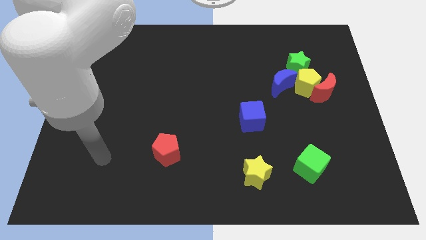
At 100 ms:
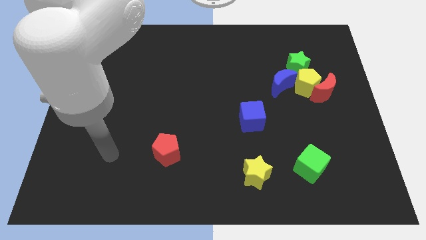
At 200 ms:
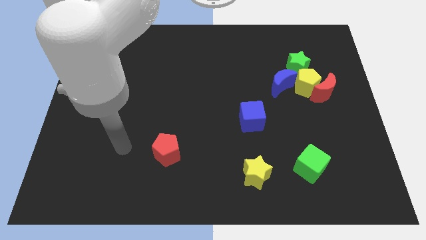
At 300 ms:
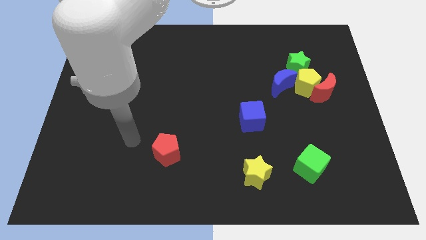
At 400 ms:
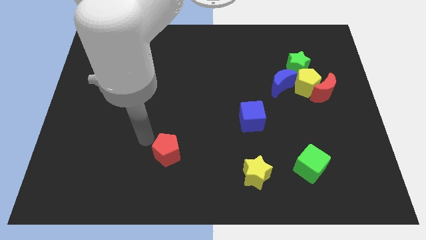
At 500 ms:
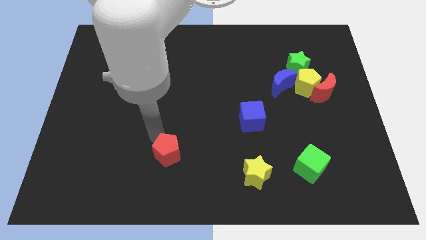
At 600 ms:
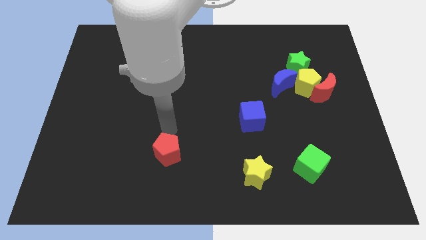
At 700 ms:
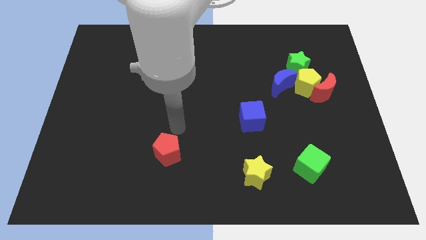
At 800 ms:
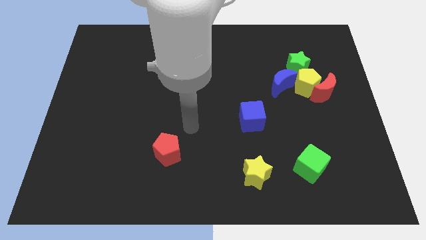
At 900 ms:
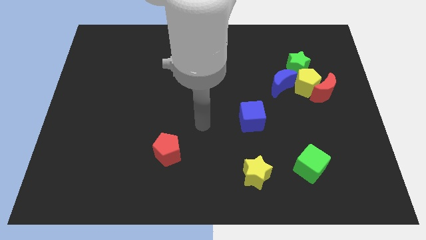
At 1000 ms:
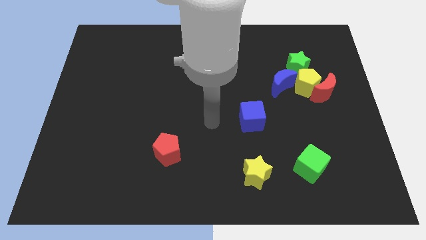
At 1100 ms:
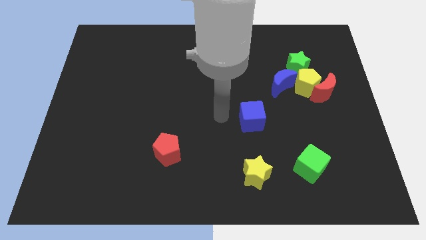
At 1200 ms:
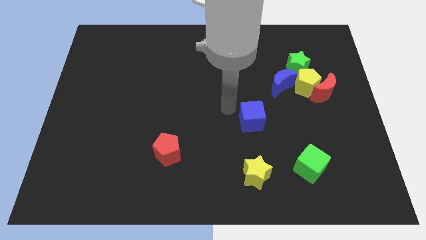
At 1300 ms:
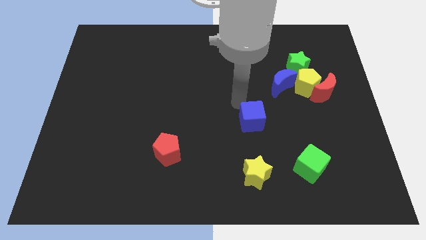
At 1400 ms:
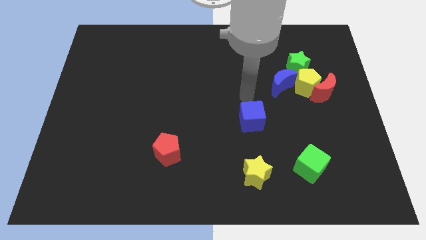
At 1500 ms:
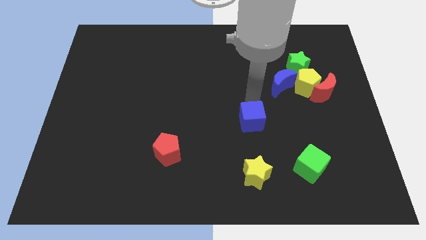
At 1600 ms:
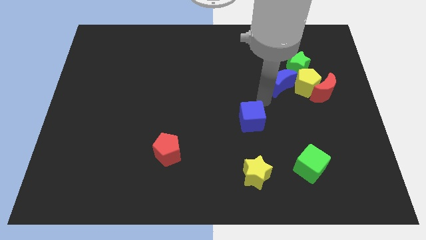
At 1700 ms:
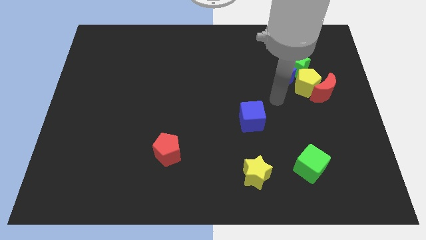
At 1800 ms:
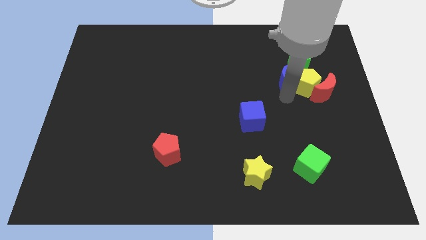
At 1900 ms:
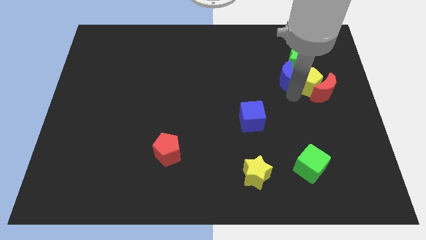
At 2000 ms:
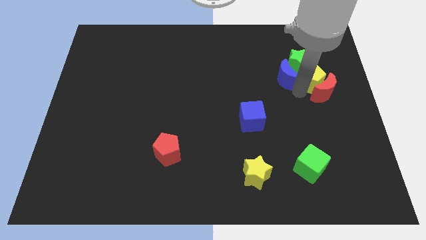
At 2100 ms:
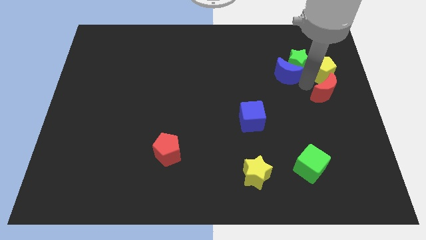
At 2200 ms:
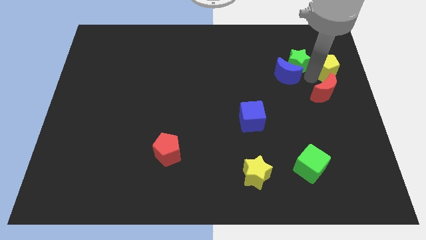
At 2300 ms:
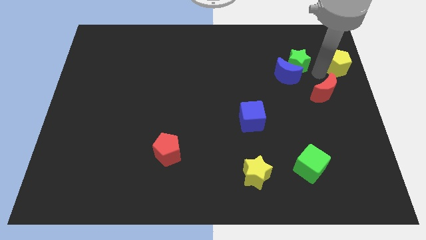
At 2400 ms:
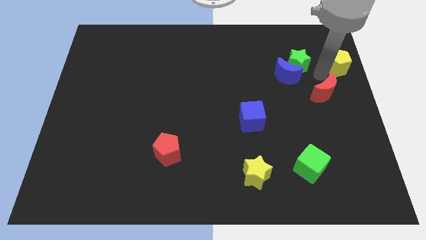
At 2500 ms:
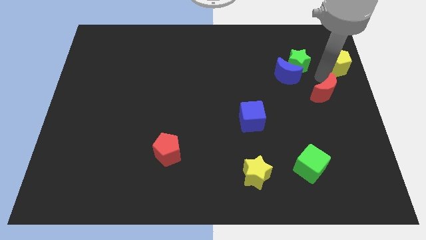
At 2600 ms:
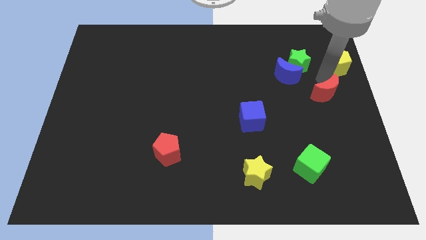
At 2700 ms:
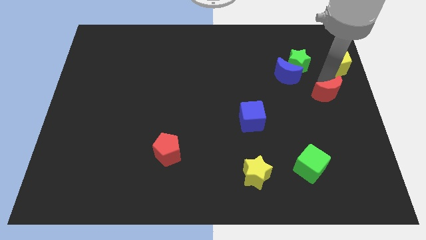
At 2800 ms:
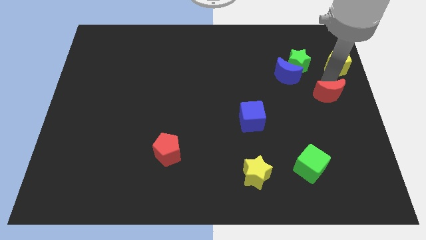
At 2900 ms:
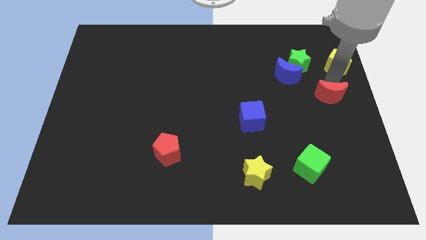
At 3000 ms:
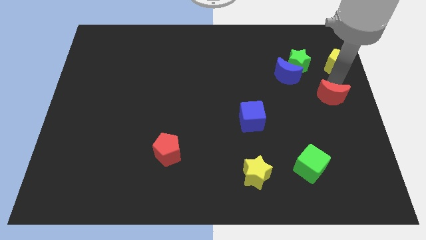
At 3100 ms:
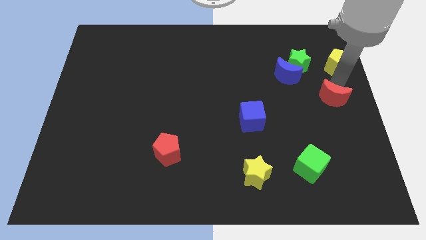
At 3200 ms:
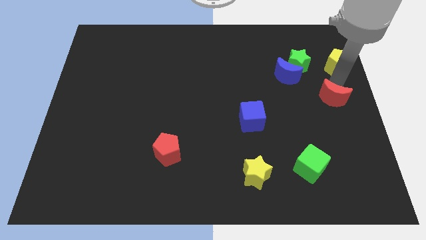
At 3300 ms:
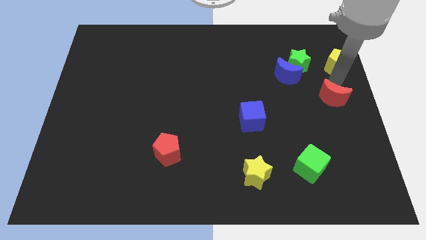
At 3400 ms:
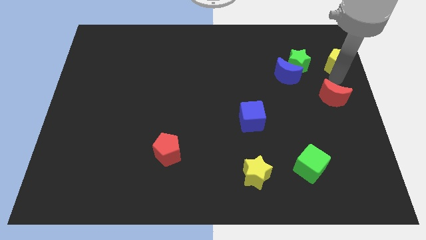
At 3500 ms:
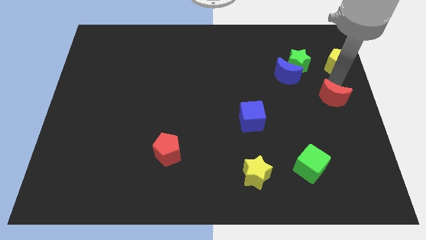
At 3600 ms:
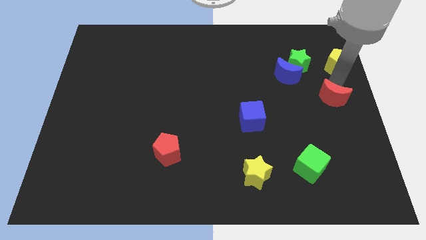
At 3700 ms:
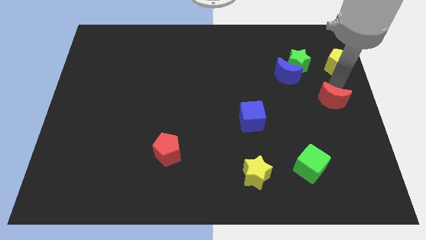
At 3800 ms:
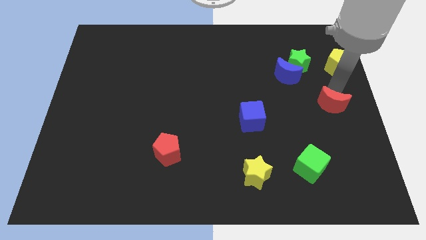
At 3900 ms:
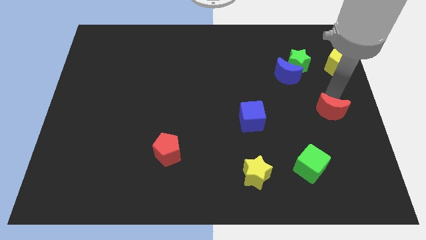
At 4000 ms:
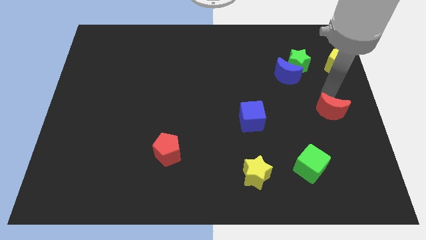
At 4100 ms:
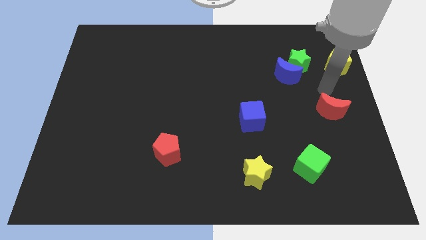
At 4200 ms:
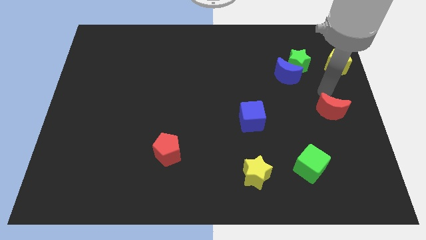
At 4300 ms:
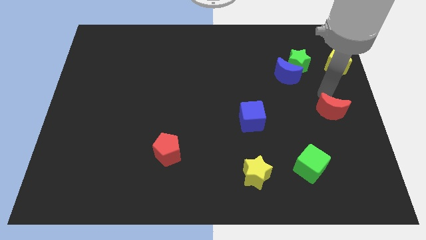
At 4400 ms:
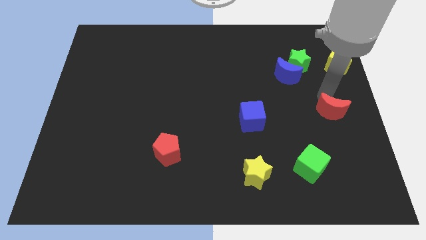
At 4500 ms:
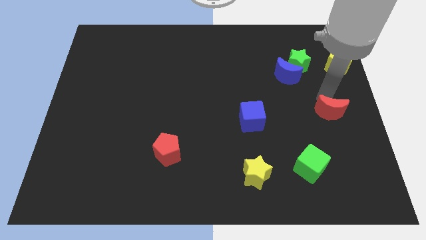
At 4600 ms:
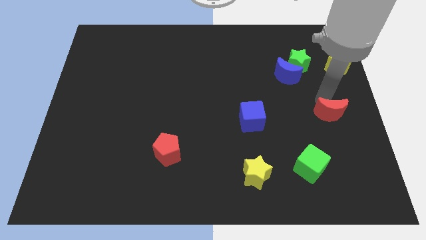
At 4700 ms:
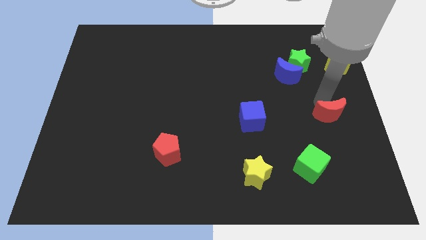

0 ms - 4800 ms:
slide the red moon somewhat down

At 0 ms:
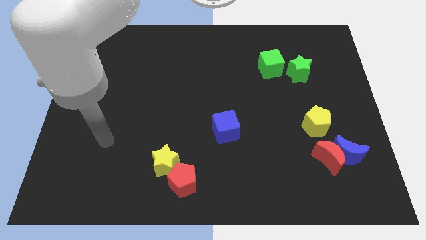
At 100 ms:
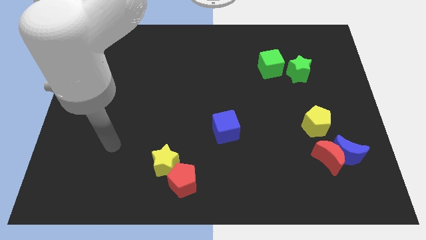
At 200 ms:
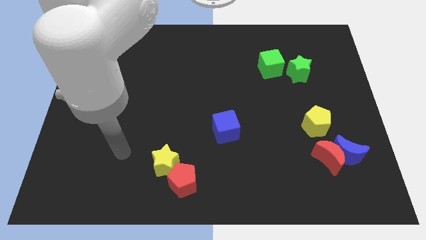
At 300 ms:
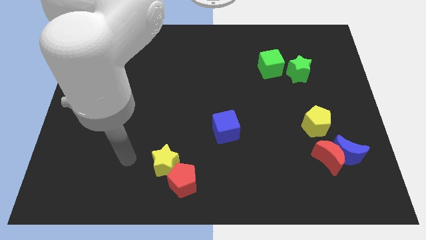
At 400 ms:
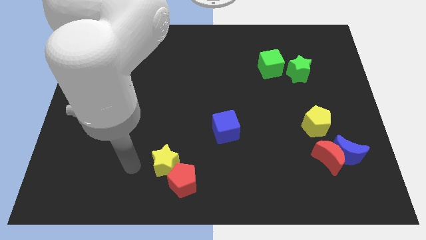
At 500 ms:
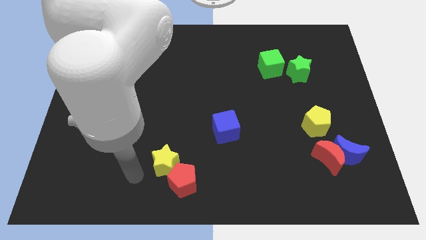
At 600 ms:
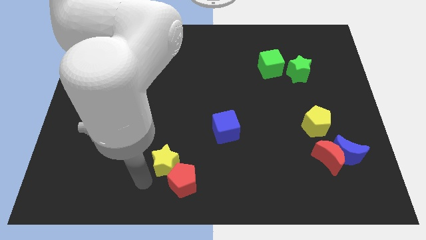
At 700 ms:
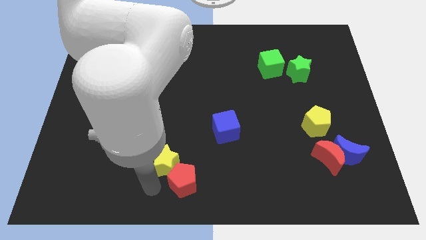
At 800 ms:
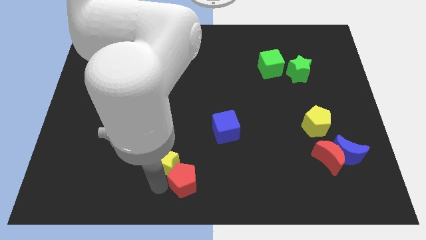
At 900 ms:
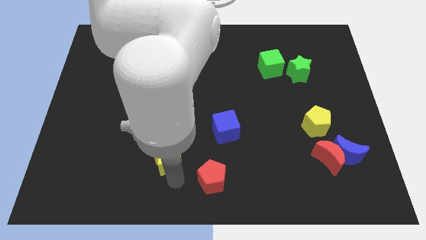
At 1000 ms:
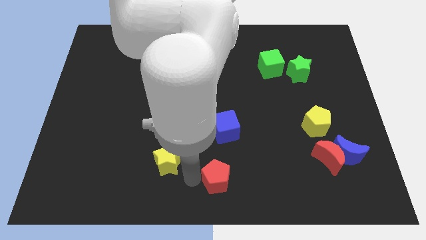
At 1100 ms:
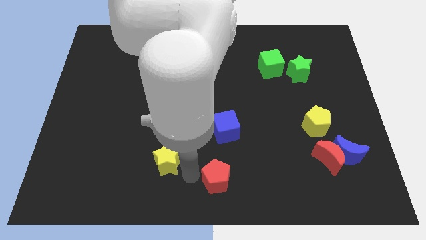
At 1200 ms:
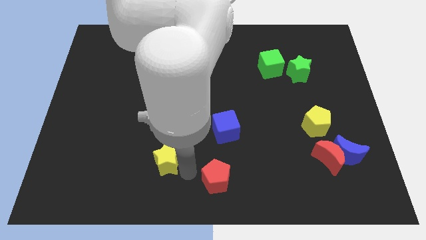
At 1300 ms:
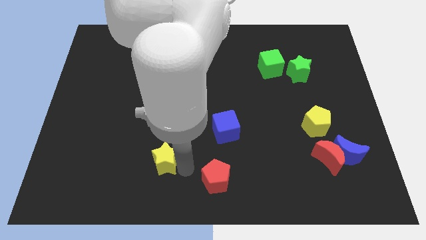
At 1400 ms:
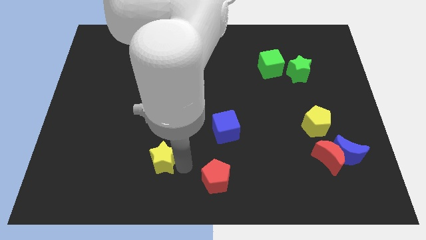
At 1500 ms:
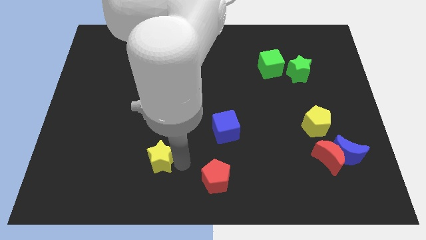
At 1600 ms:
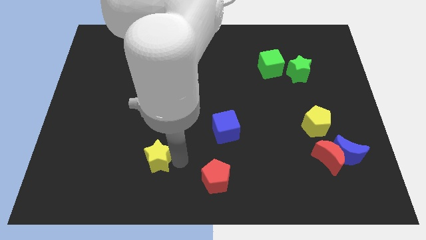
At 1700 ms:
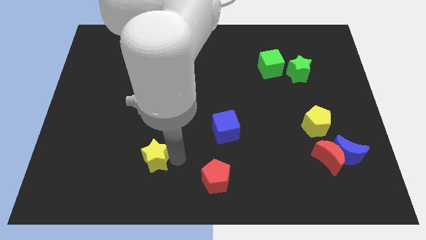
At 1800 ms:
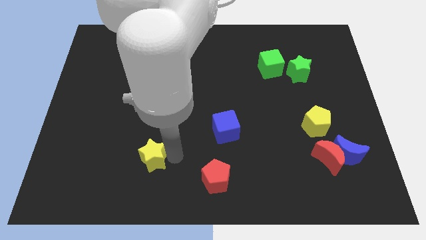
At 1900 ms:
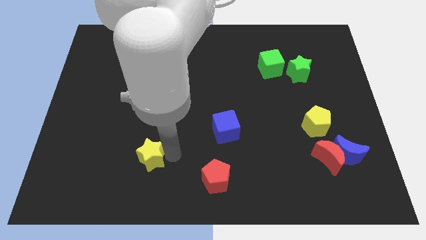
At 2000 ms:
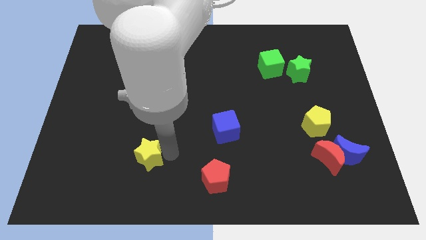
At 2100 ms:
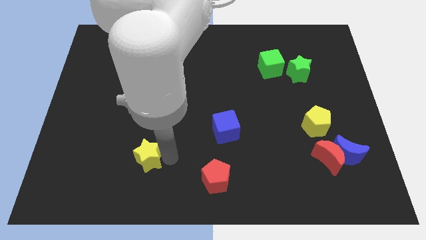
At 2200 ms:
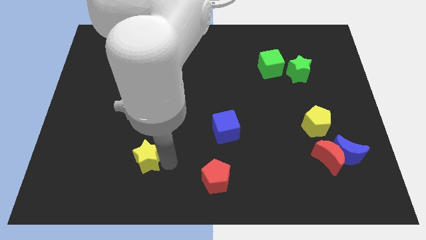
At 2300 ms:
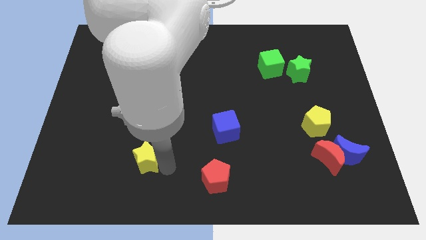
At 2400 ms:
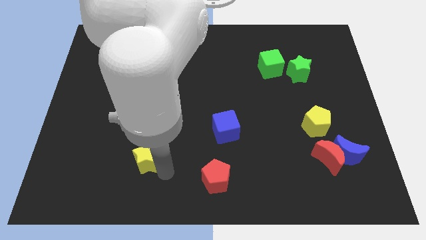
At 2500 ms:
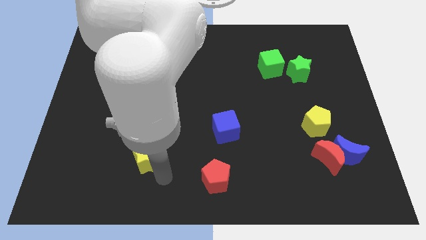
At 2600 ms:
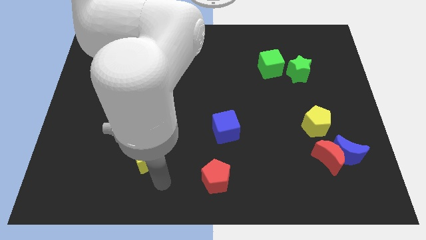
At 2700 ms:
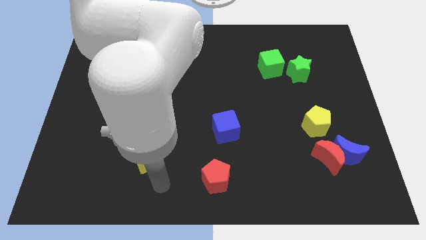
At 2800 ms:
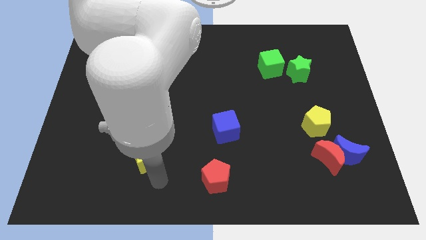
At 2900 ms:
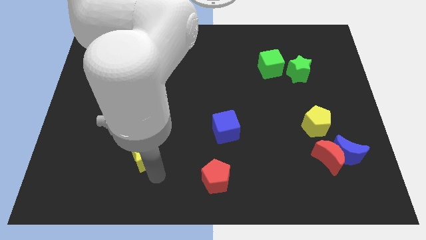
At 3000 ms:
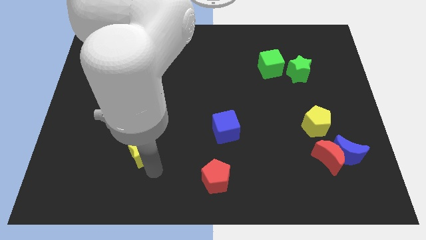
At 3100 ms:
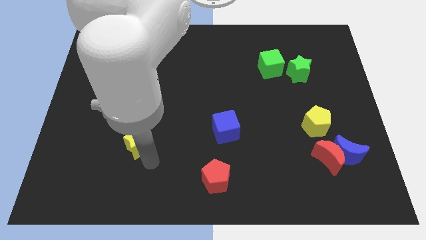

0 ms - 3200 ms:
push the yellow star a little bit upwards and to the left diagonally

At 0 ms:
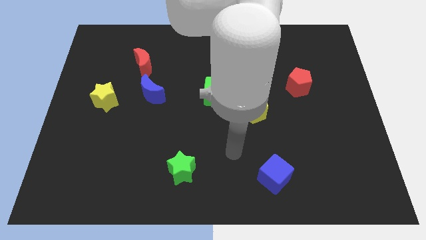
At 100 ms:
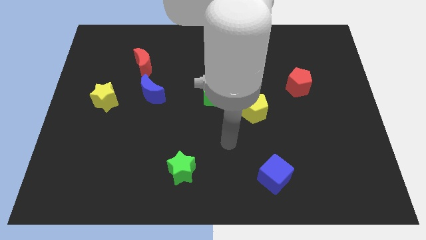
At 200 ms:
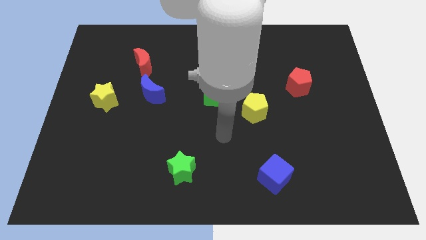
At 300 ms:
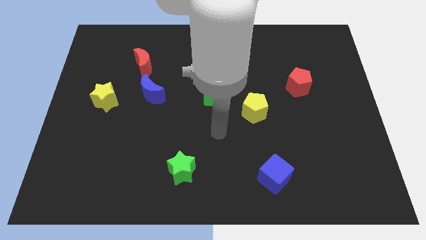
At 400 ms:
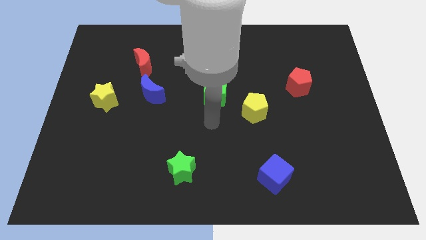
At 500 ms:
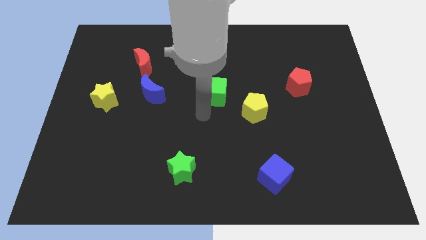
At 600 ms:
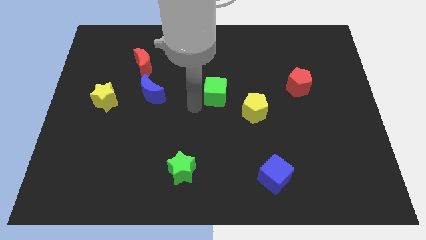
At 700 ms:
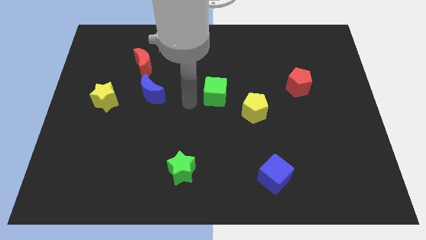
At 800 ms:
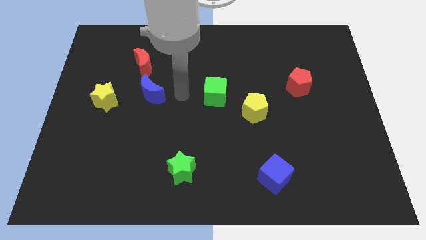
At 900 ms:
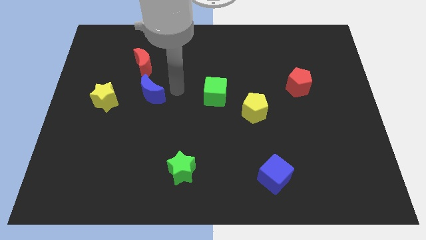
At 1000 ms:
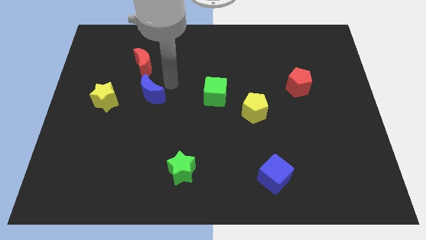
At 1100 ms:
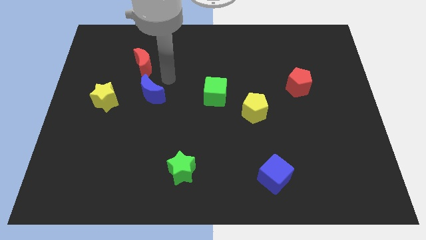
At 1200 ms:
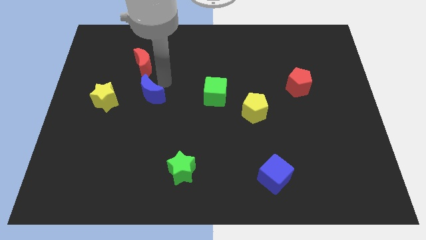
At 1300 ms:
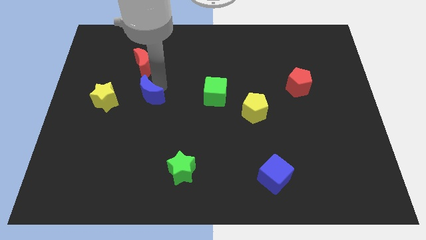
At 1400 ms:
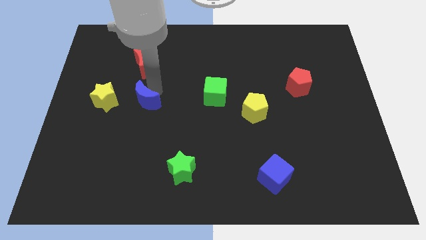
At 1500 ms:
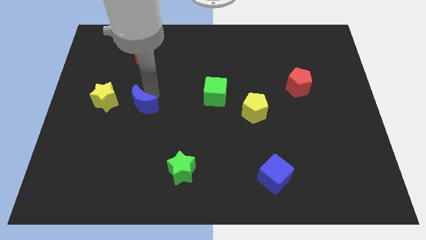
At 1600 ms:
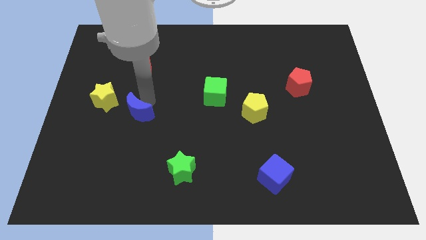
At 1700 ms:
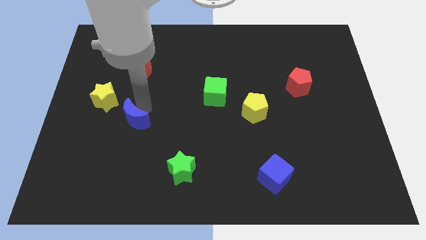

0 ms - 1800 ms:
slightly slide the blue moon downwards and left diagonally
